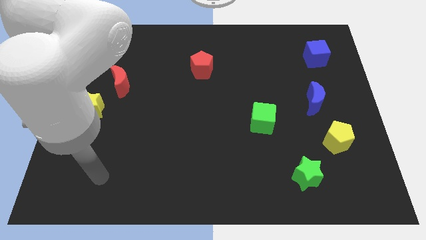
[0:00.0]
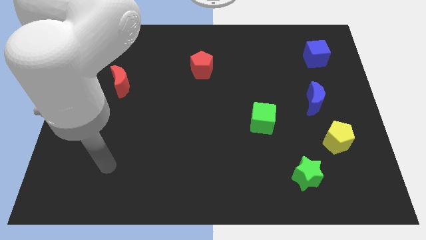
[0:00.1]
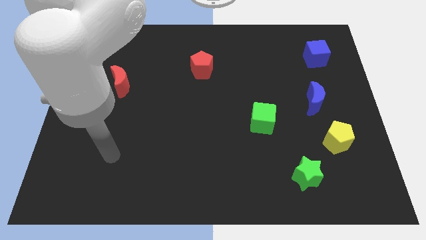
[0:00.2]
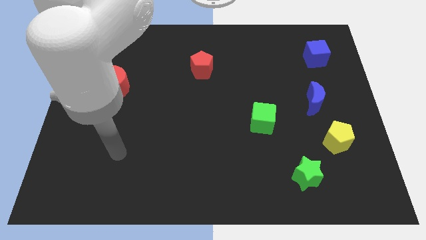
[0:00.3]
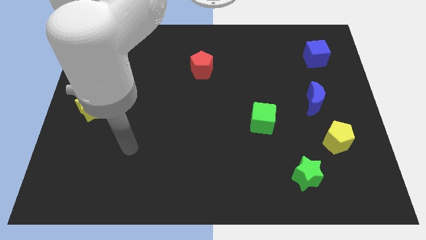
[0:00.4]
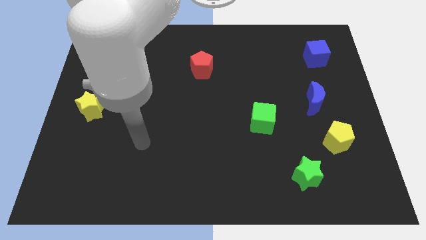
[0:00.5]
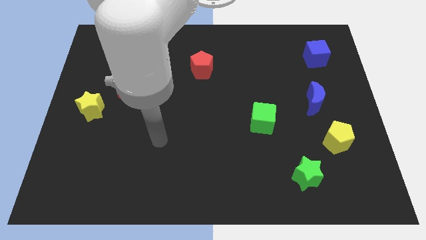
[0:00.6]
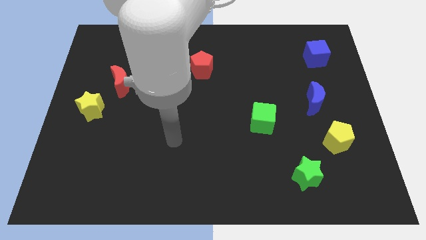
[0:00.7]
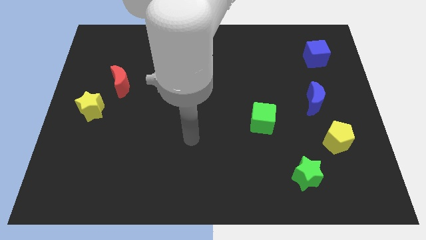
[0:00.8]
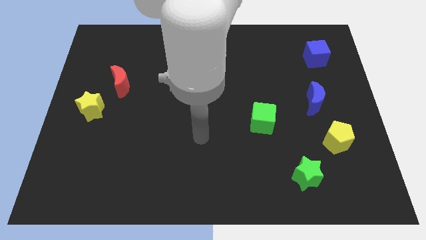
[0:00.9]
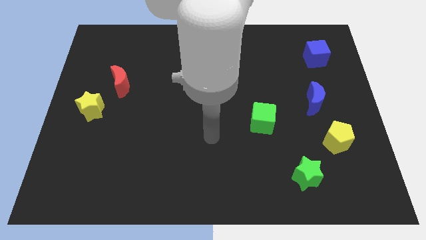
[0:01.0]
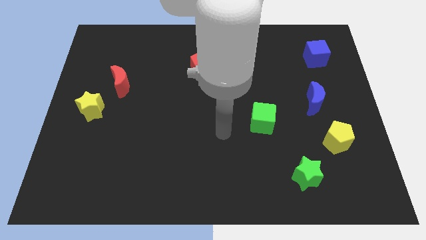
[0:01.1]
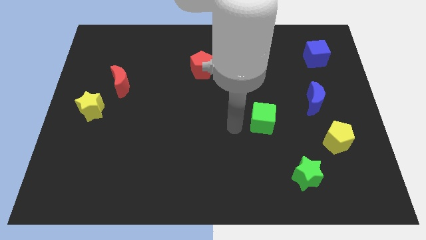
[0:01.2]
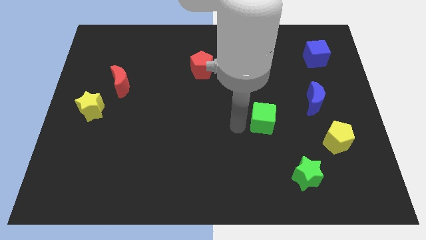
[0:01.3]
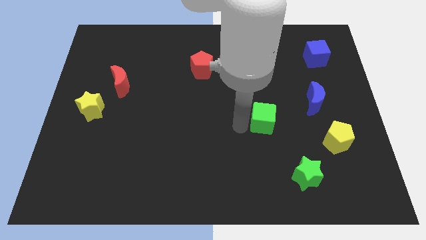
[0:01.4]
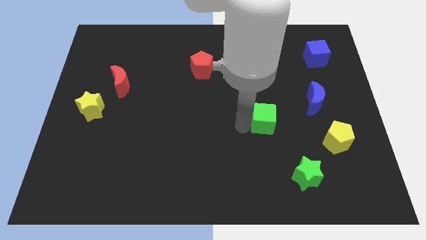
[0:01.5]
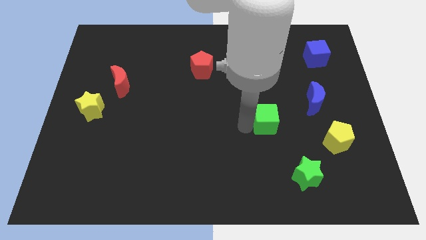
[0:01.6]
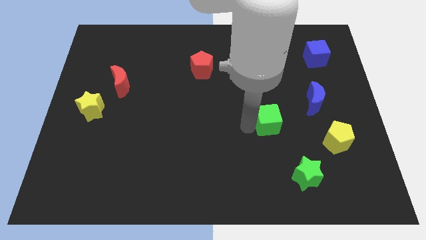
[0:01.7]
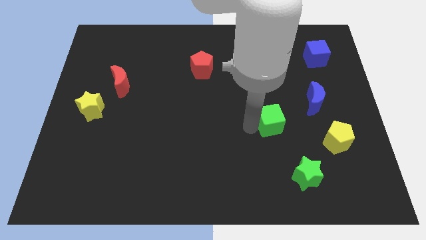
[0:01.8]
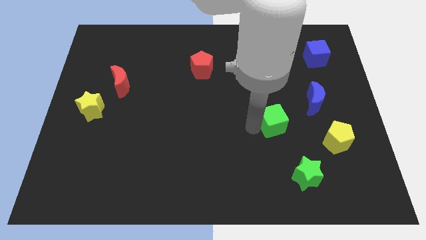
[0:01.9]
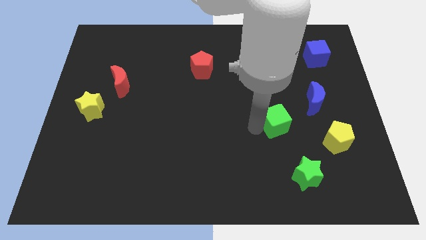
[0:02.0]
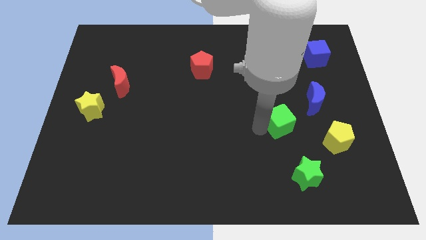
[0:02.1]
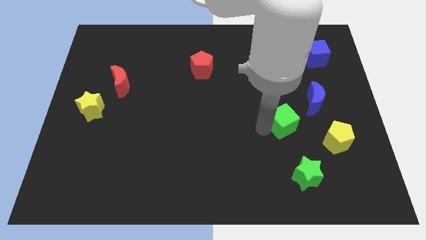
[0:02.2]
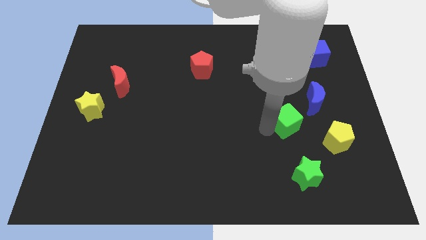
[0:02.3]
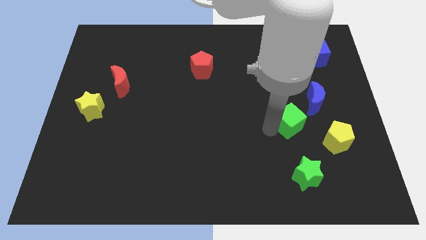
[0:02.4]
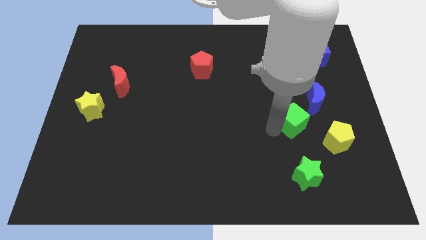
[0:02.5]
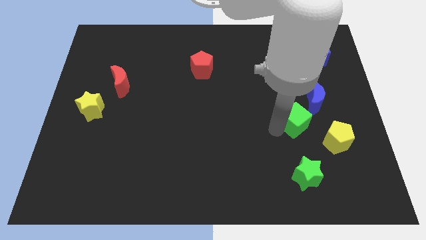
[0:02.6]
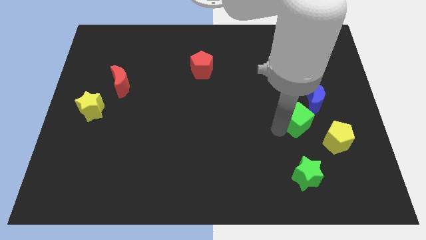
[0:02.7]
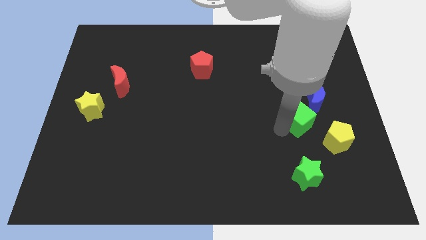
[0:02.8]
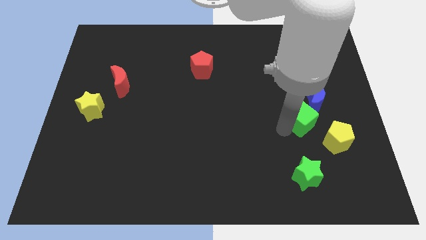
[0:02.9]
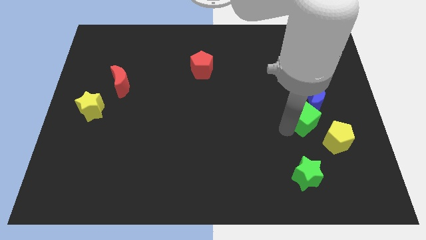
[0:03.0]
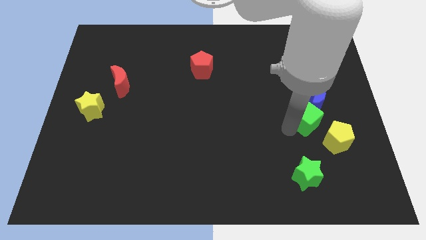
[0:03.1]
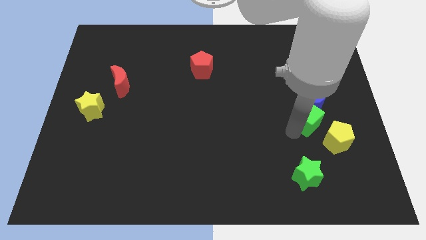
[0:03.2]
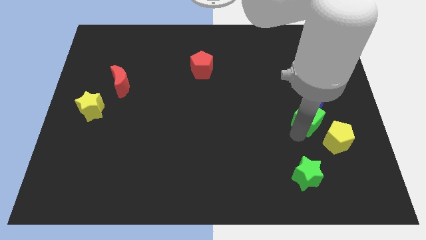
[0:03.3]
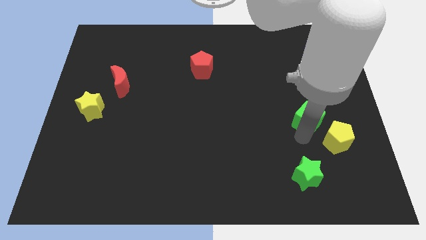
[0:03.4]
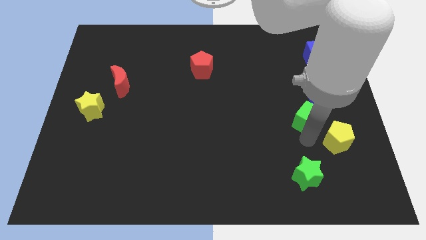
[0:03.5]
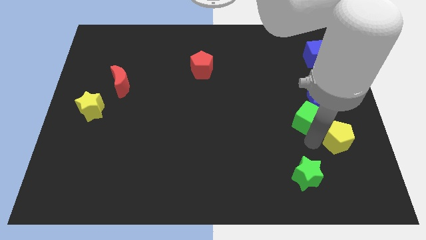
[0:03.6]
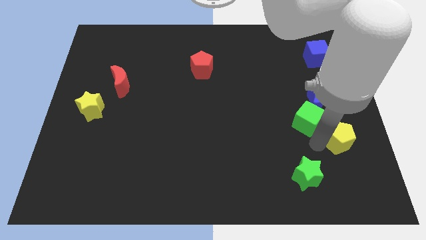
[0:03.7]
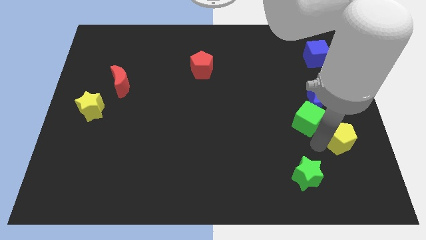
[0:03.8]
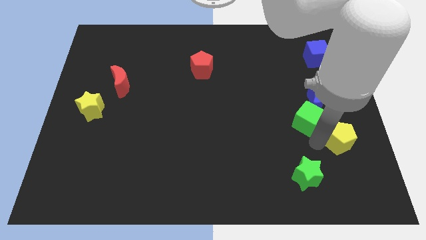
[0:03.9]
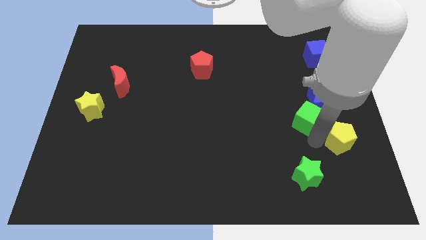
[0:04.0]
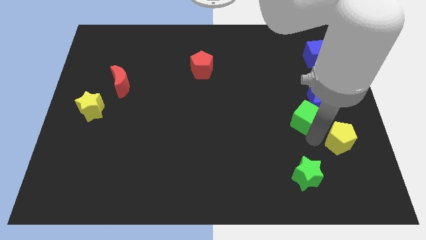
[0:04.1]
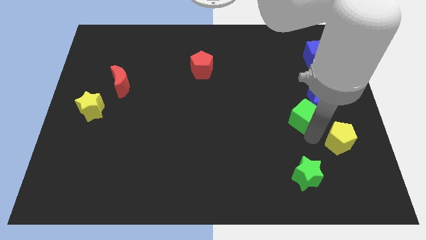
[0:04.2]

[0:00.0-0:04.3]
push the green cube towards the blue moon

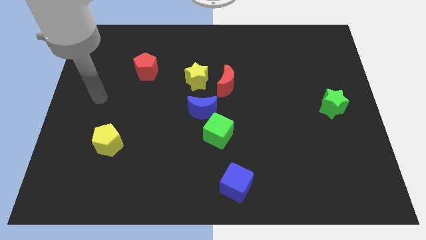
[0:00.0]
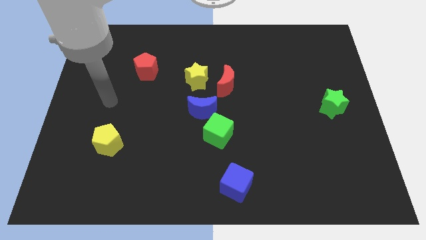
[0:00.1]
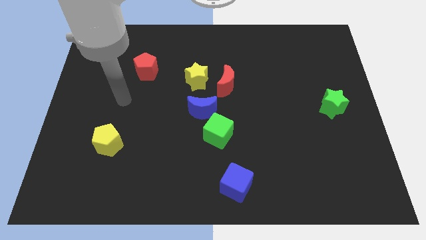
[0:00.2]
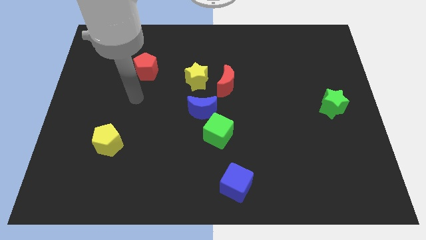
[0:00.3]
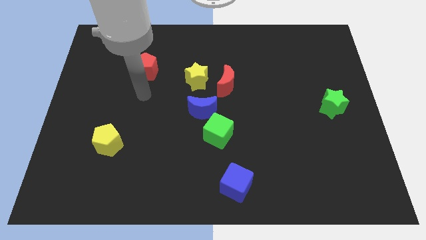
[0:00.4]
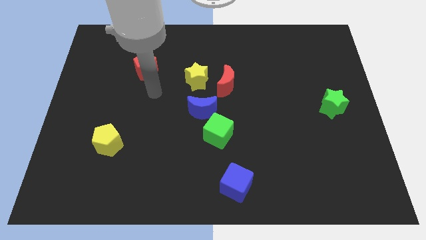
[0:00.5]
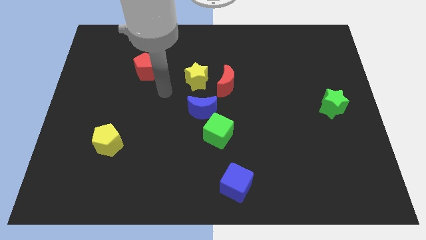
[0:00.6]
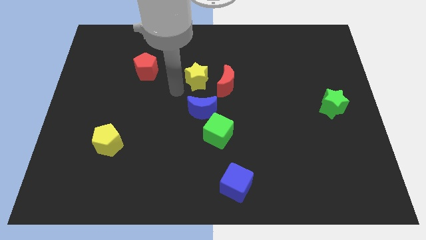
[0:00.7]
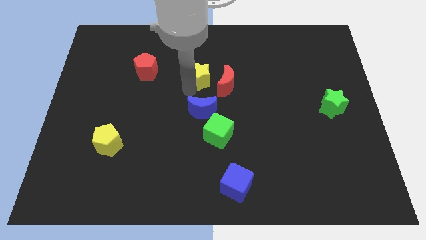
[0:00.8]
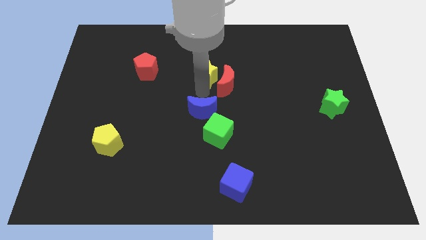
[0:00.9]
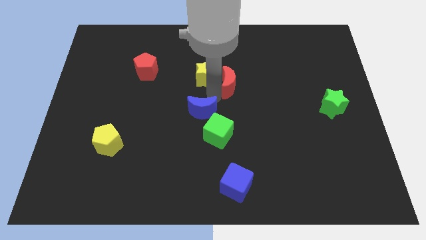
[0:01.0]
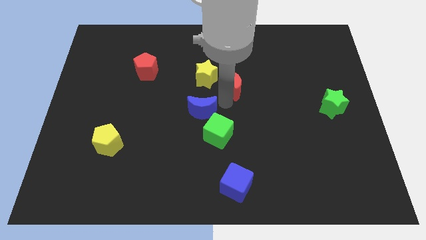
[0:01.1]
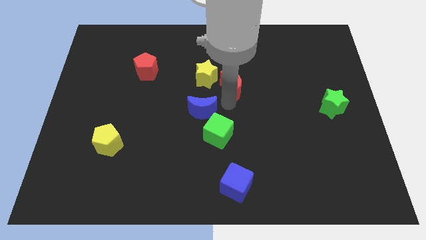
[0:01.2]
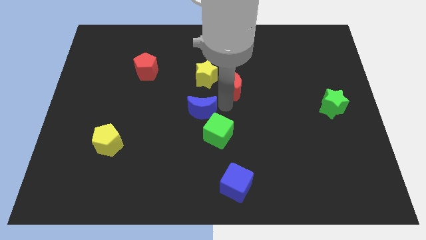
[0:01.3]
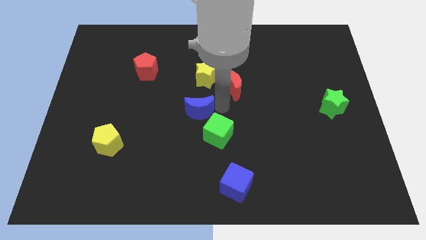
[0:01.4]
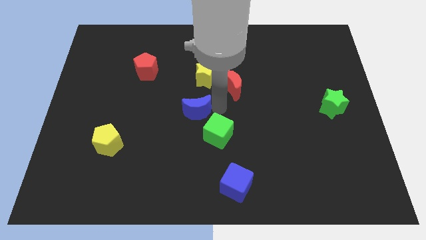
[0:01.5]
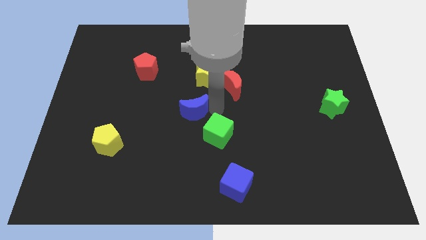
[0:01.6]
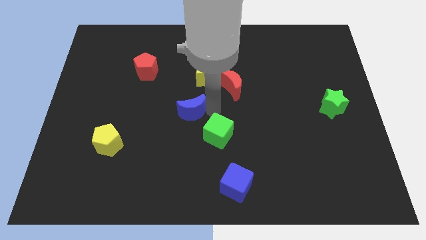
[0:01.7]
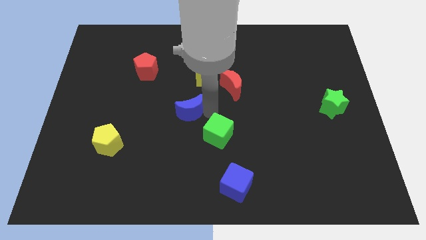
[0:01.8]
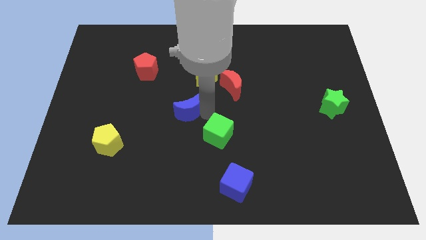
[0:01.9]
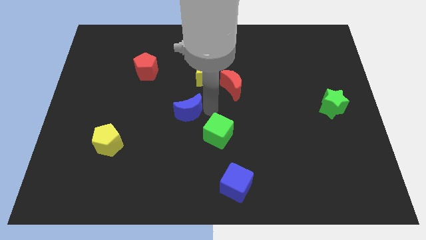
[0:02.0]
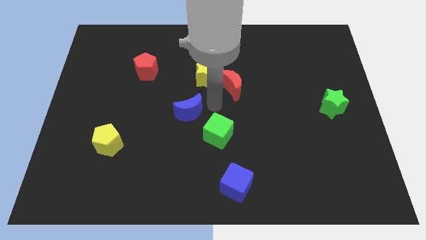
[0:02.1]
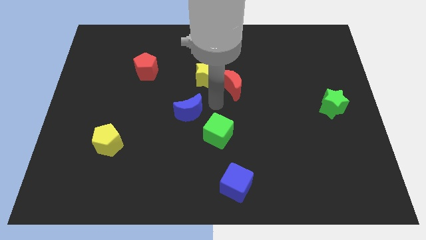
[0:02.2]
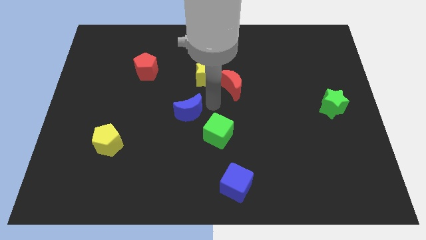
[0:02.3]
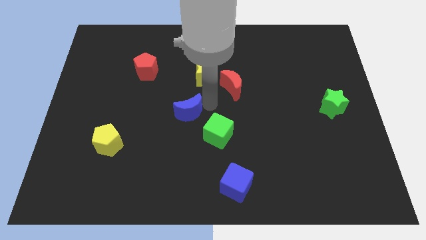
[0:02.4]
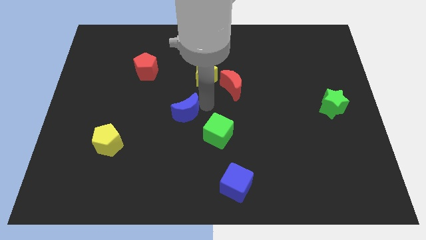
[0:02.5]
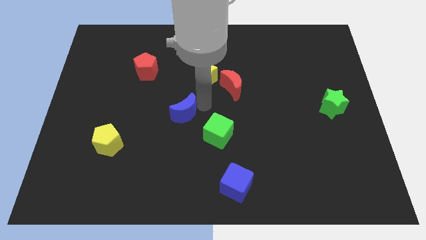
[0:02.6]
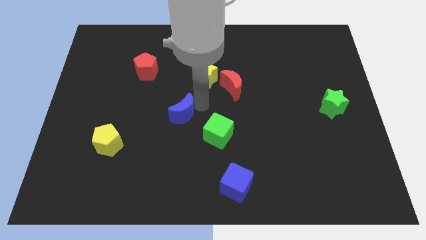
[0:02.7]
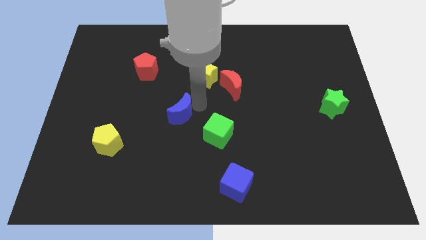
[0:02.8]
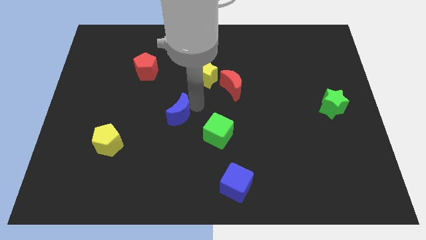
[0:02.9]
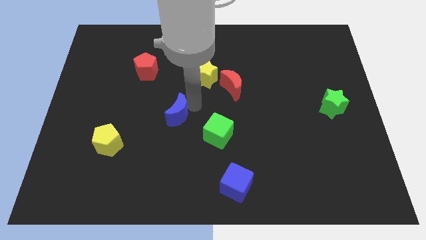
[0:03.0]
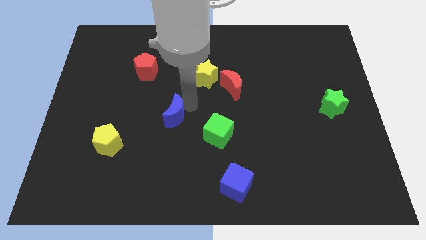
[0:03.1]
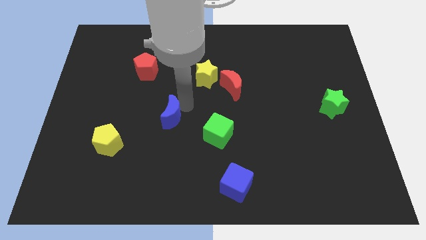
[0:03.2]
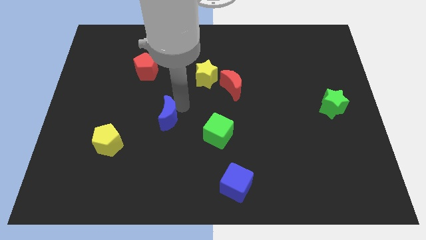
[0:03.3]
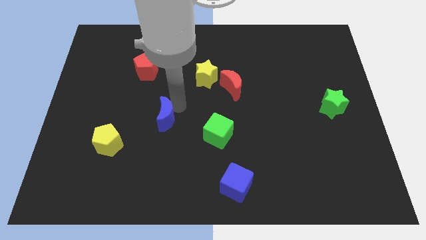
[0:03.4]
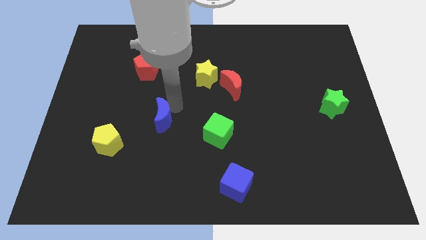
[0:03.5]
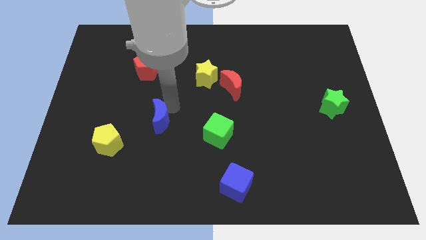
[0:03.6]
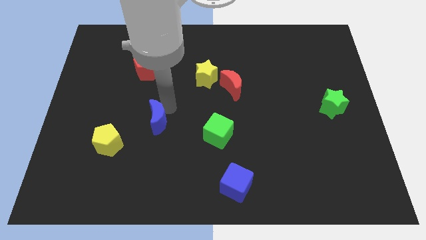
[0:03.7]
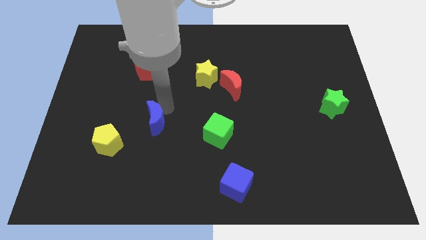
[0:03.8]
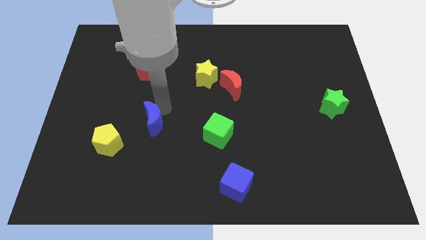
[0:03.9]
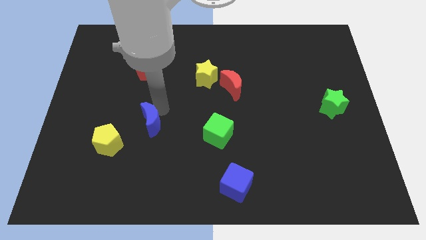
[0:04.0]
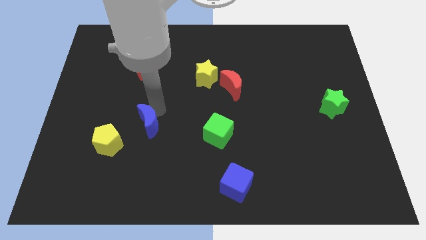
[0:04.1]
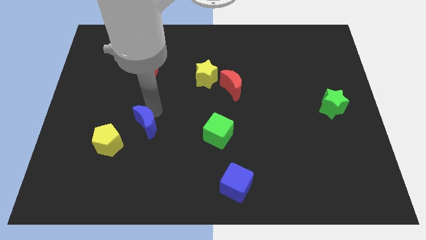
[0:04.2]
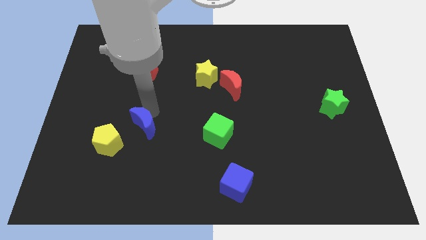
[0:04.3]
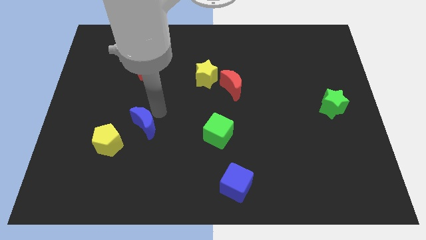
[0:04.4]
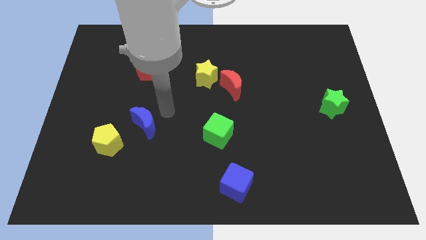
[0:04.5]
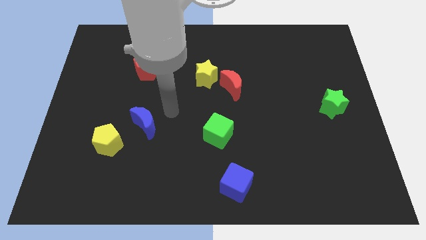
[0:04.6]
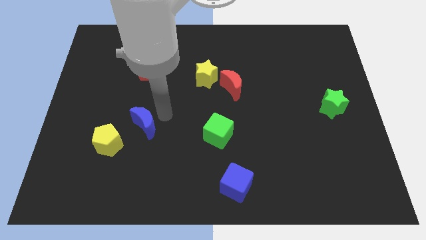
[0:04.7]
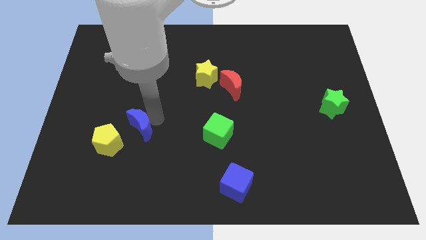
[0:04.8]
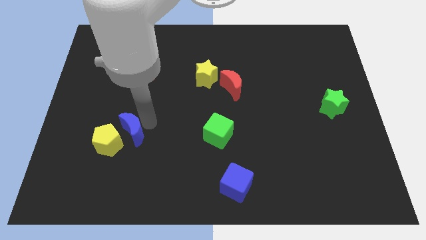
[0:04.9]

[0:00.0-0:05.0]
slide the blue moon to the yellow pentagon
